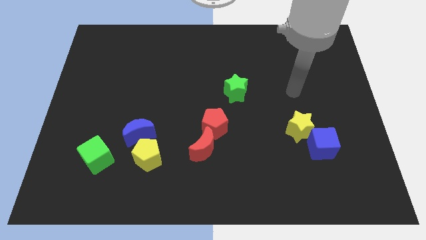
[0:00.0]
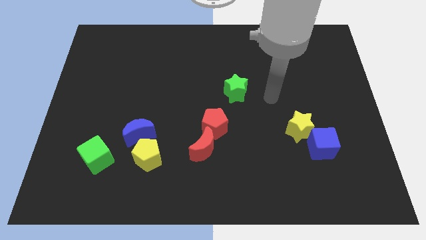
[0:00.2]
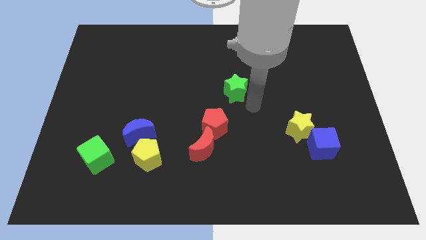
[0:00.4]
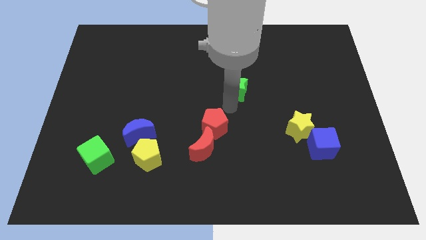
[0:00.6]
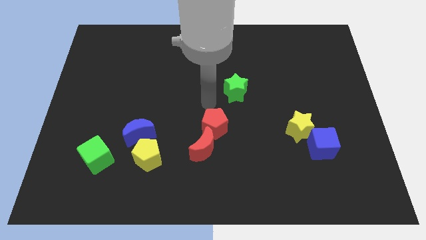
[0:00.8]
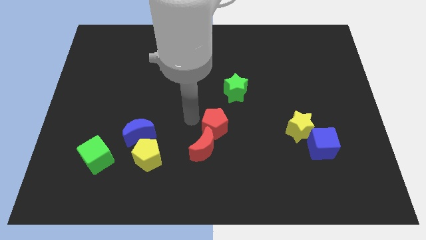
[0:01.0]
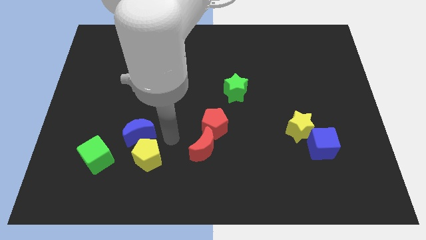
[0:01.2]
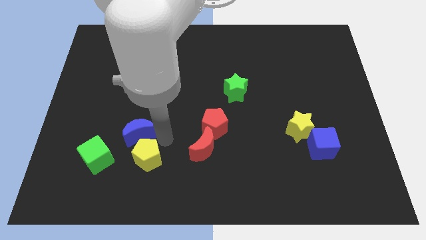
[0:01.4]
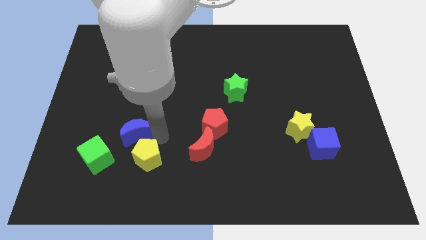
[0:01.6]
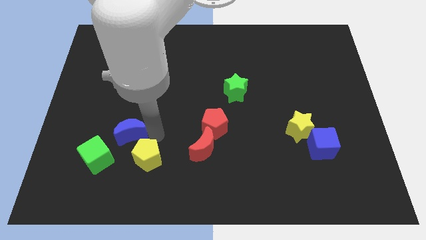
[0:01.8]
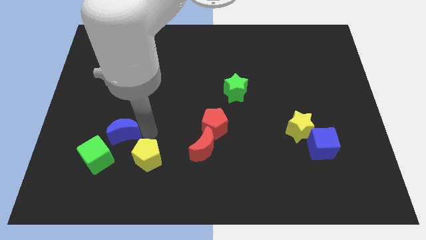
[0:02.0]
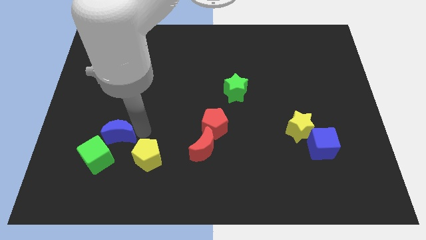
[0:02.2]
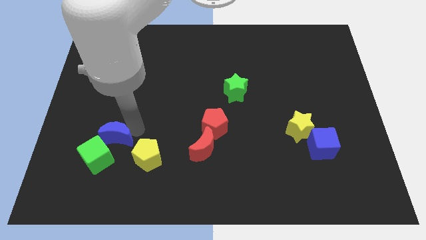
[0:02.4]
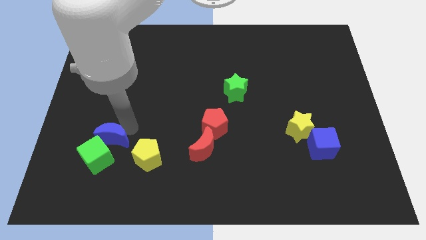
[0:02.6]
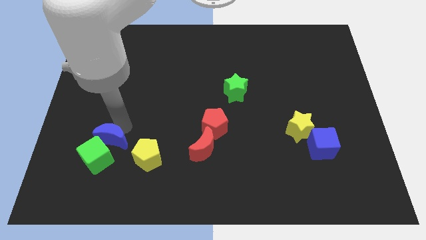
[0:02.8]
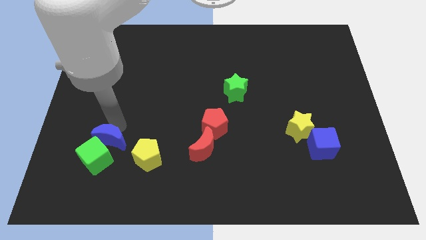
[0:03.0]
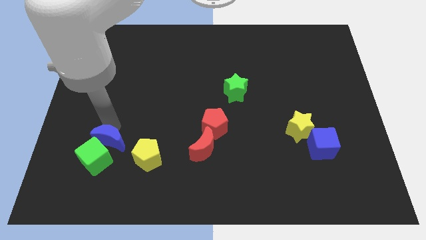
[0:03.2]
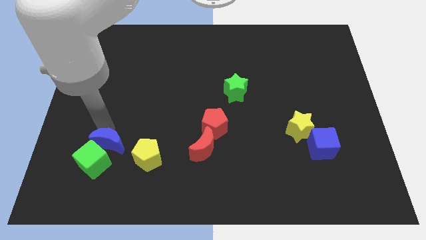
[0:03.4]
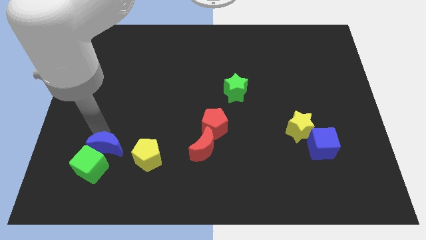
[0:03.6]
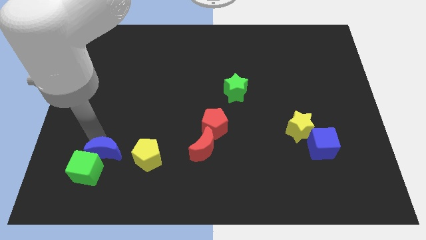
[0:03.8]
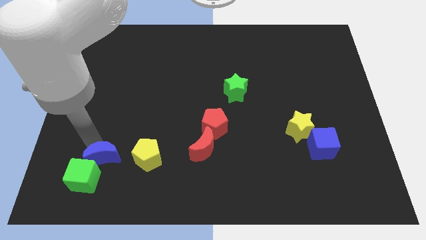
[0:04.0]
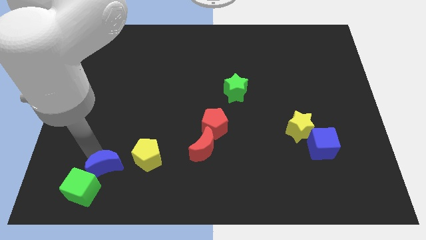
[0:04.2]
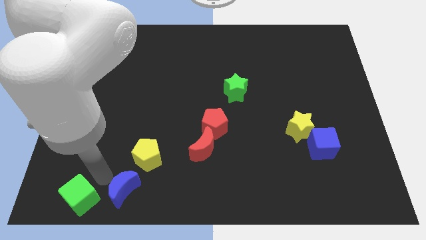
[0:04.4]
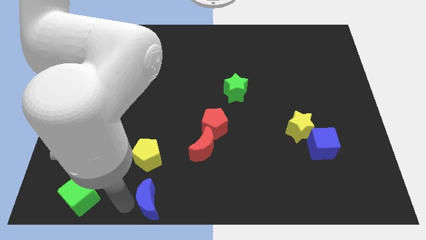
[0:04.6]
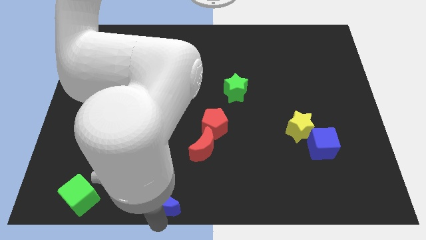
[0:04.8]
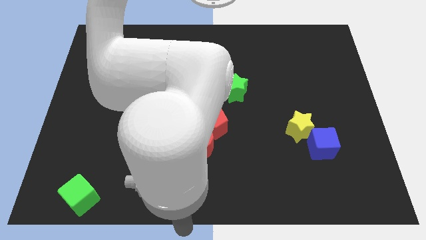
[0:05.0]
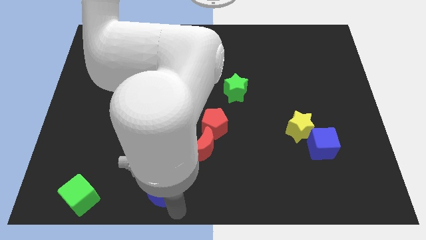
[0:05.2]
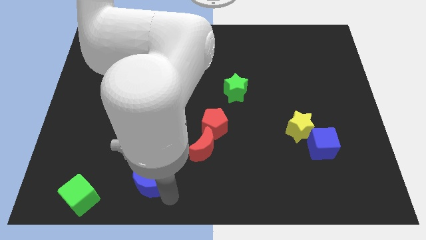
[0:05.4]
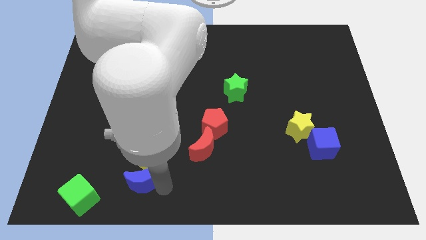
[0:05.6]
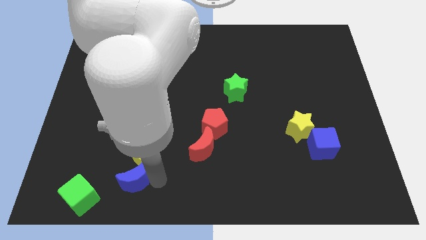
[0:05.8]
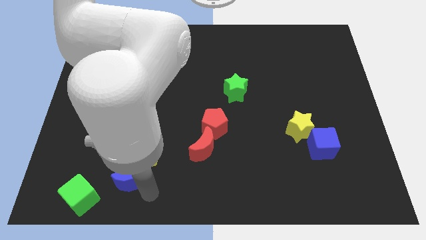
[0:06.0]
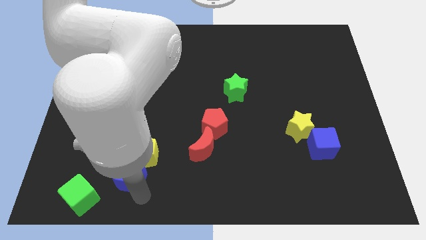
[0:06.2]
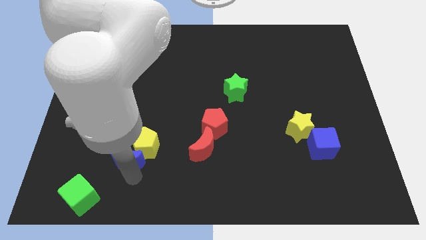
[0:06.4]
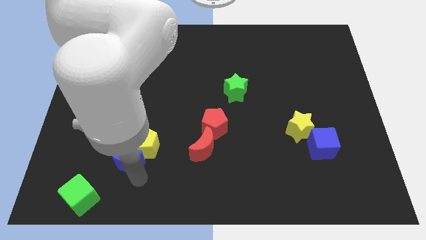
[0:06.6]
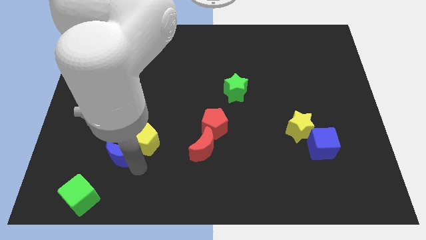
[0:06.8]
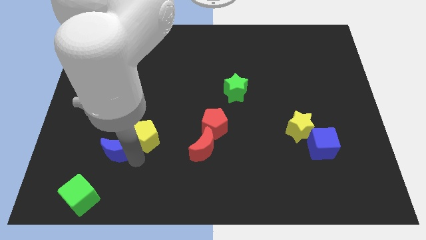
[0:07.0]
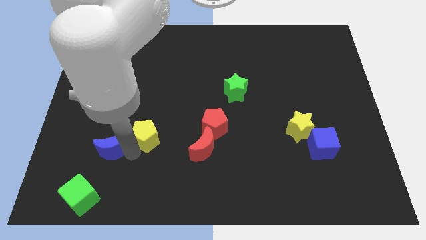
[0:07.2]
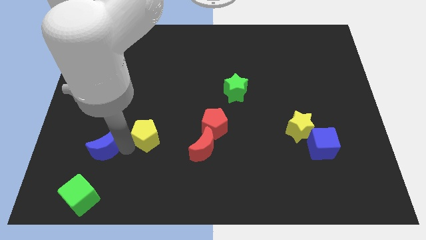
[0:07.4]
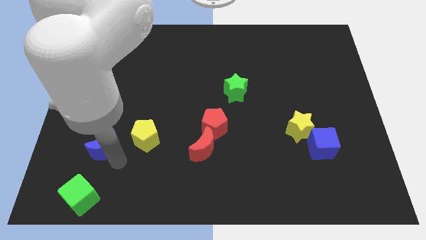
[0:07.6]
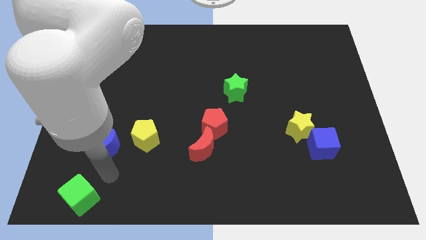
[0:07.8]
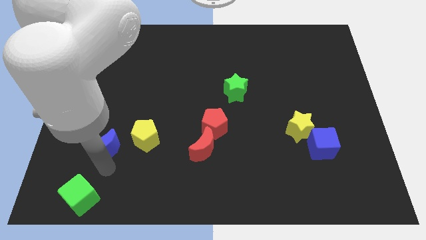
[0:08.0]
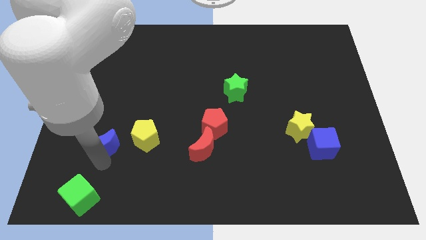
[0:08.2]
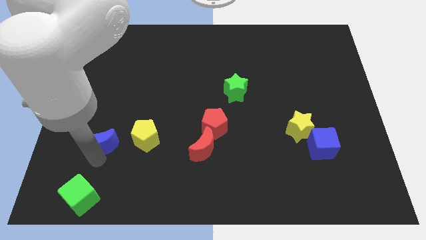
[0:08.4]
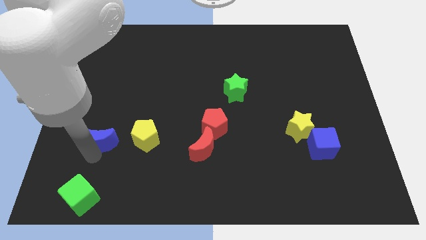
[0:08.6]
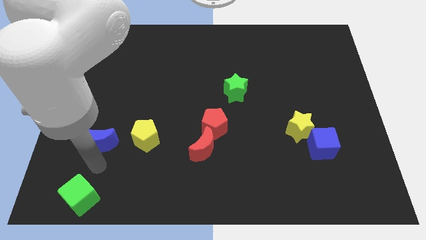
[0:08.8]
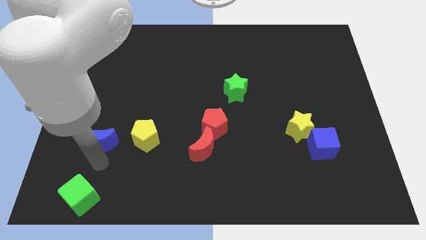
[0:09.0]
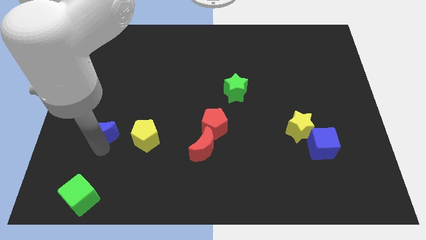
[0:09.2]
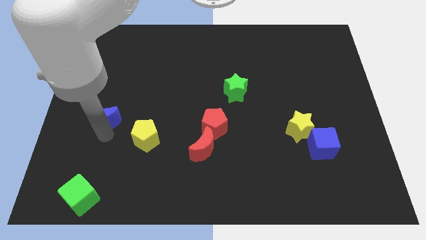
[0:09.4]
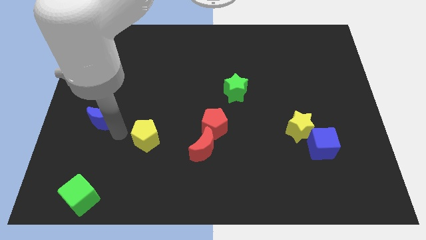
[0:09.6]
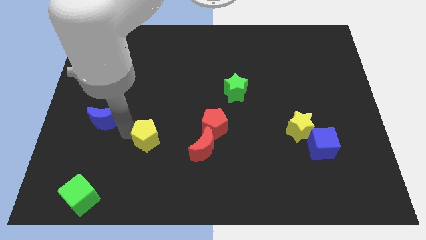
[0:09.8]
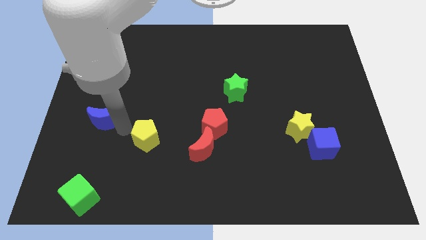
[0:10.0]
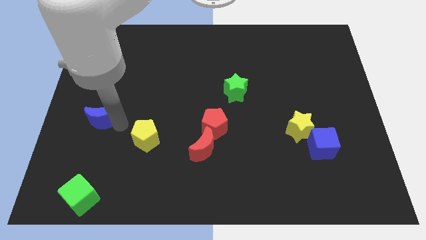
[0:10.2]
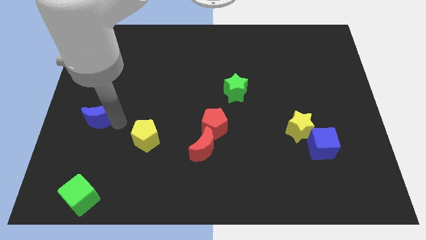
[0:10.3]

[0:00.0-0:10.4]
put the blue moon to the center left

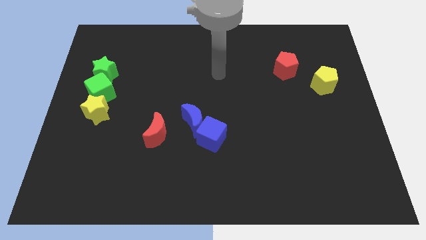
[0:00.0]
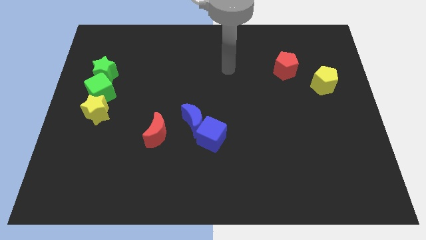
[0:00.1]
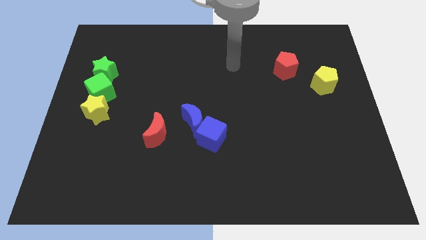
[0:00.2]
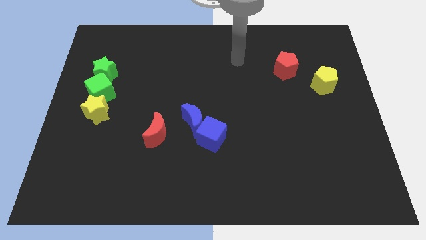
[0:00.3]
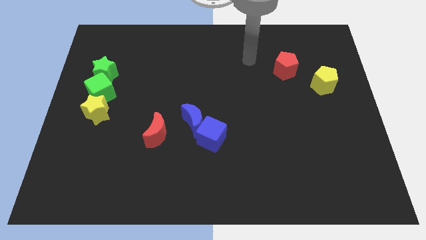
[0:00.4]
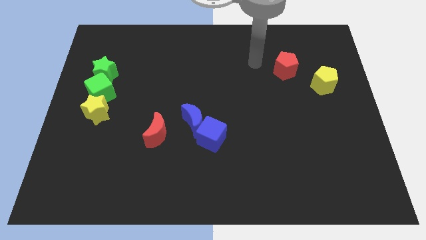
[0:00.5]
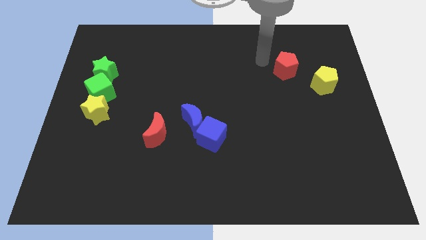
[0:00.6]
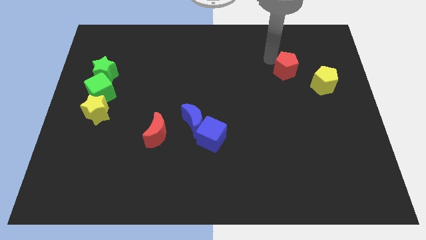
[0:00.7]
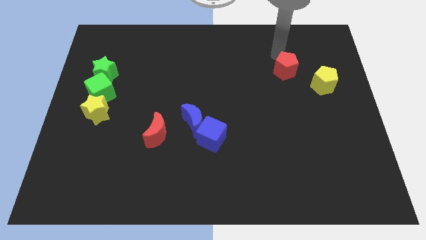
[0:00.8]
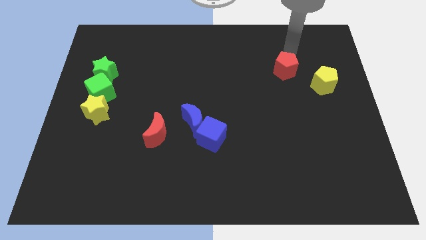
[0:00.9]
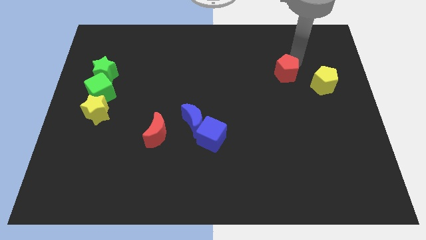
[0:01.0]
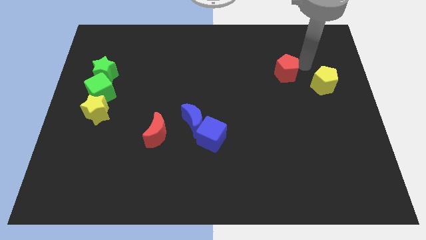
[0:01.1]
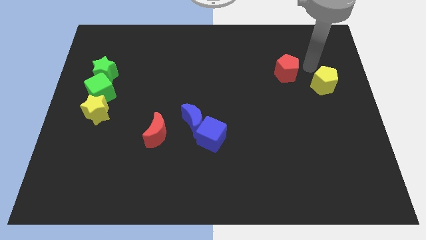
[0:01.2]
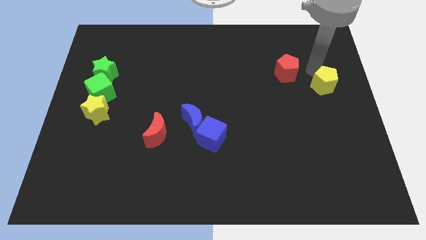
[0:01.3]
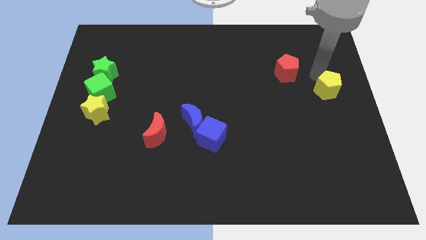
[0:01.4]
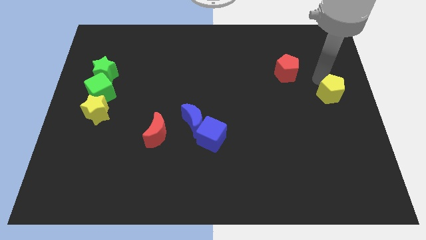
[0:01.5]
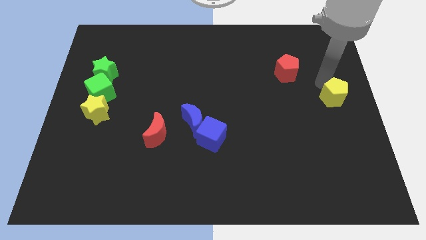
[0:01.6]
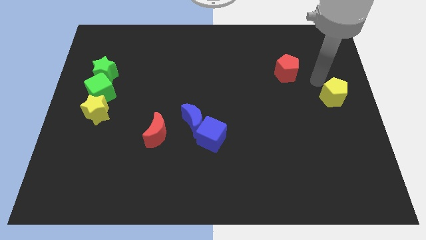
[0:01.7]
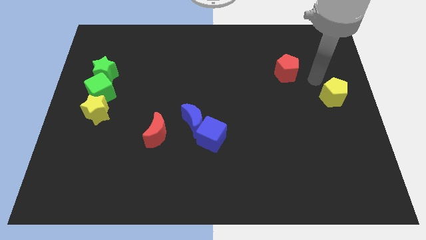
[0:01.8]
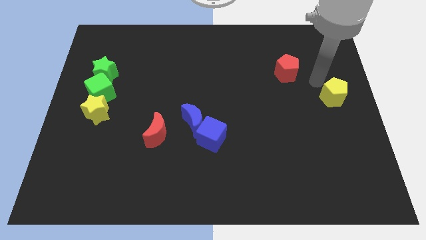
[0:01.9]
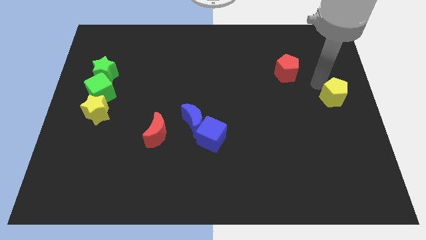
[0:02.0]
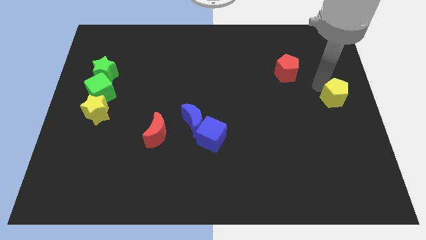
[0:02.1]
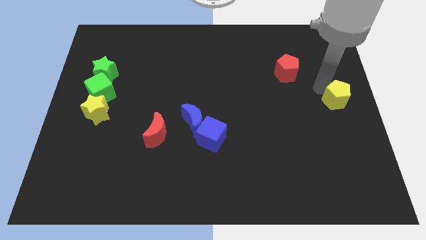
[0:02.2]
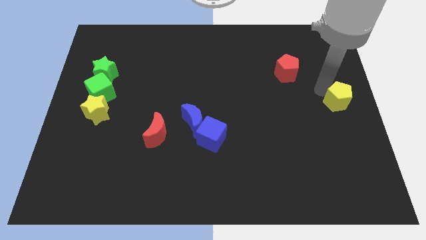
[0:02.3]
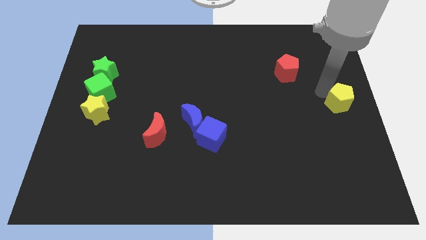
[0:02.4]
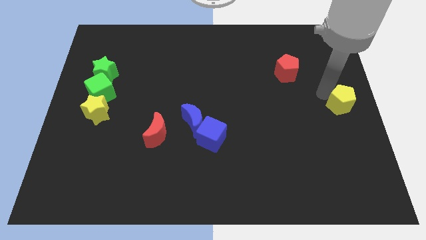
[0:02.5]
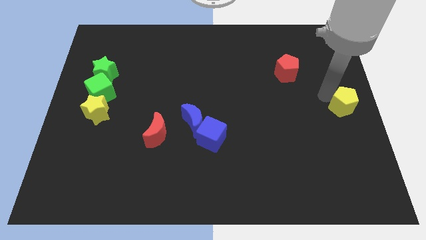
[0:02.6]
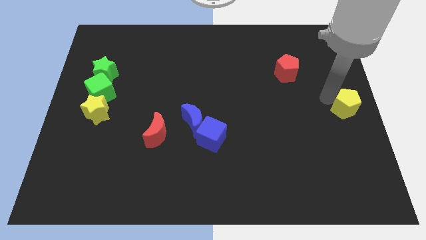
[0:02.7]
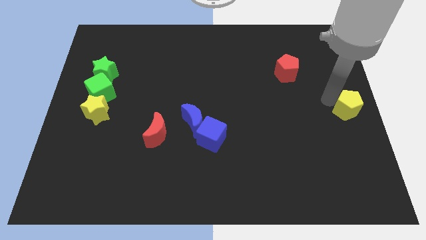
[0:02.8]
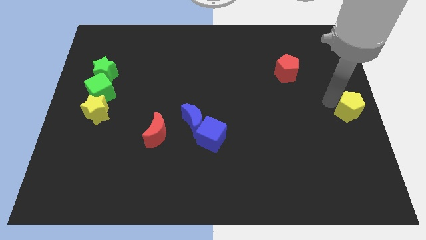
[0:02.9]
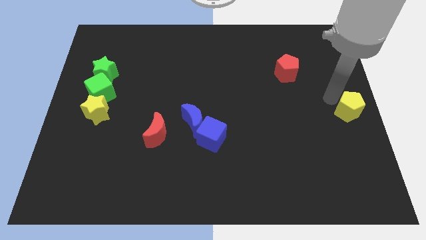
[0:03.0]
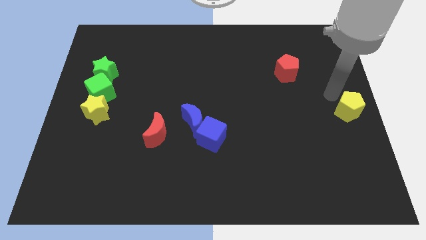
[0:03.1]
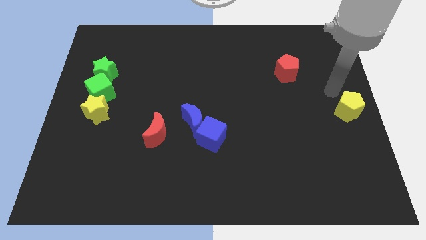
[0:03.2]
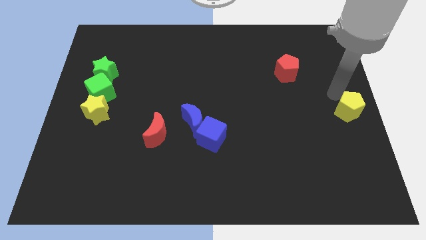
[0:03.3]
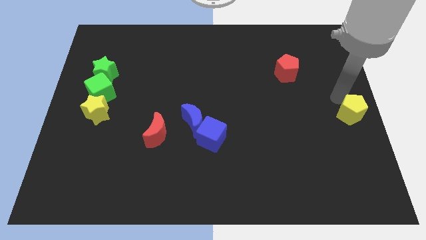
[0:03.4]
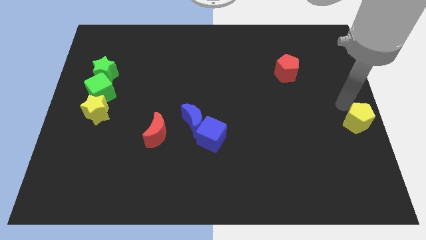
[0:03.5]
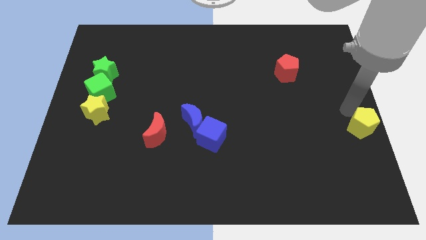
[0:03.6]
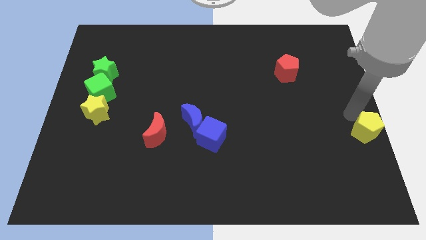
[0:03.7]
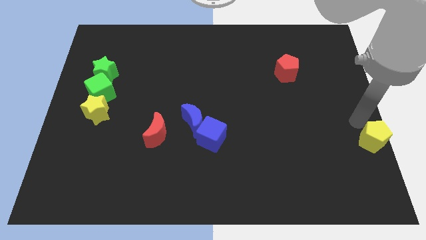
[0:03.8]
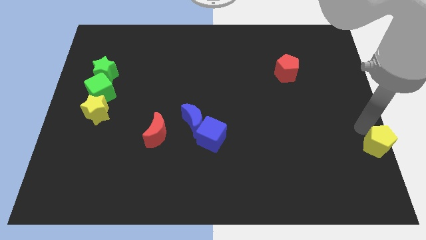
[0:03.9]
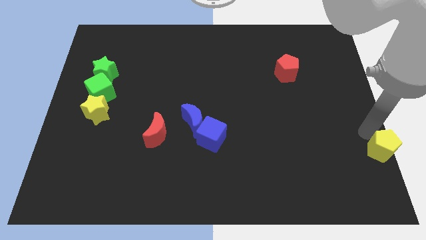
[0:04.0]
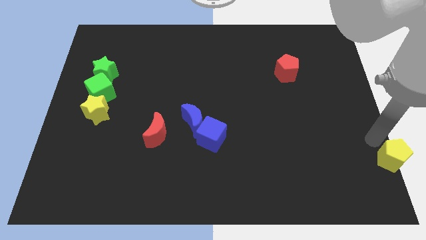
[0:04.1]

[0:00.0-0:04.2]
push the yellow pentagon to the bottom right corner
